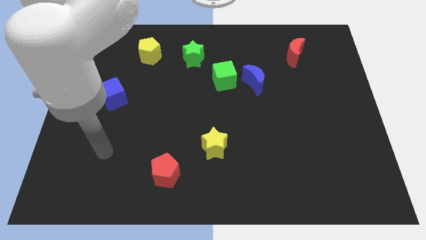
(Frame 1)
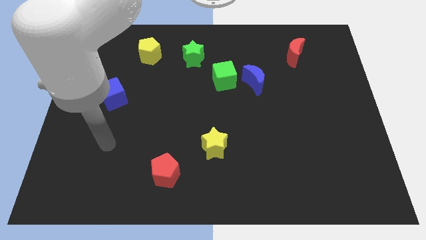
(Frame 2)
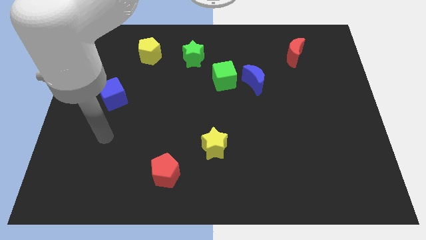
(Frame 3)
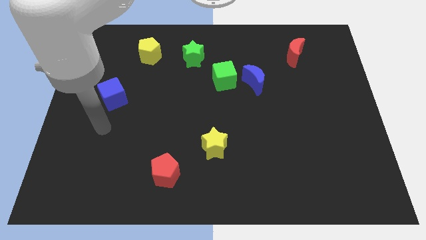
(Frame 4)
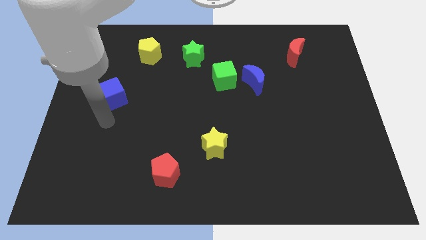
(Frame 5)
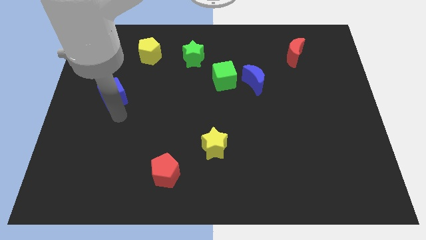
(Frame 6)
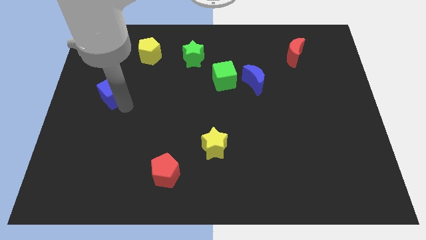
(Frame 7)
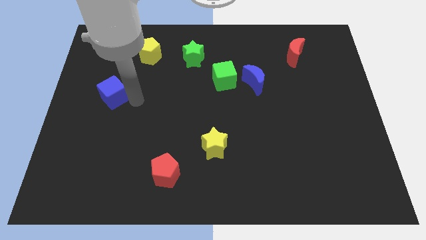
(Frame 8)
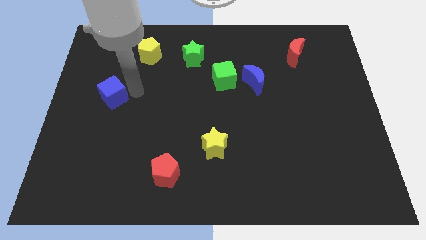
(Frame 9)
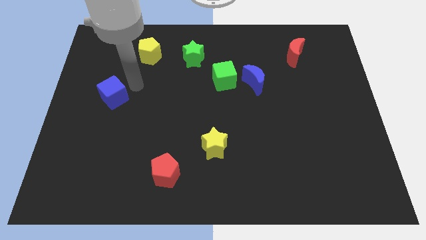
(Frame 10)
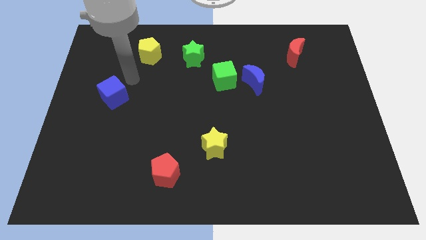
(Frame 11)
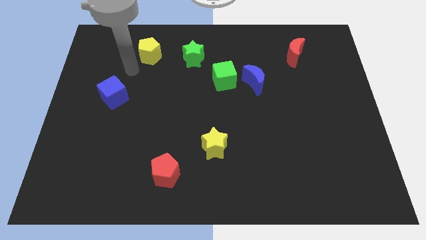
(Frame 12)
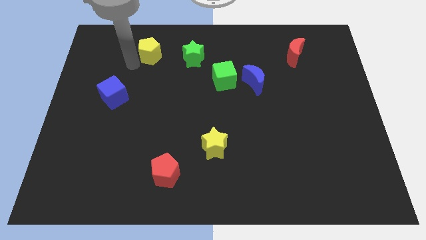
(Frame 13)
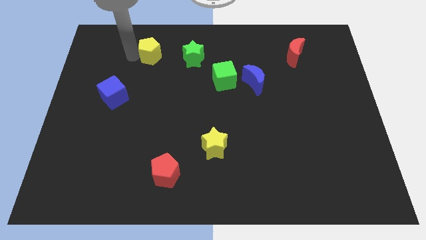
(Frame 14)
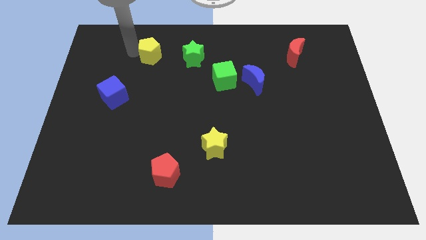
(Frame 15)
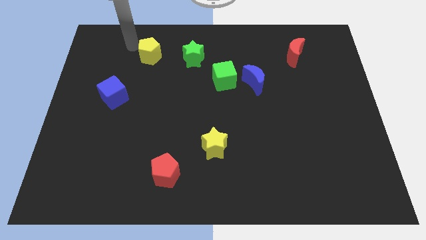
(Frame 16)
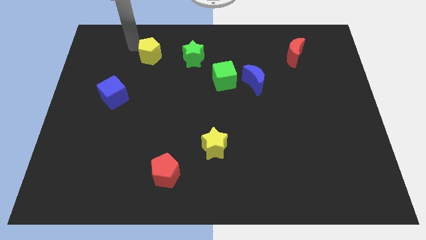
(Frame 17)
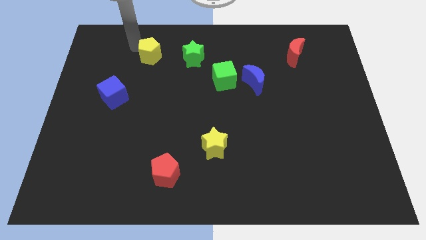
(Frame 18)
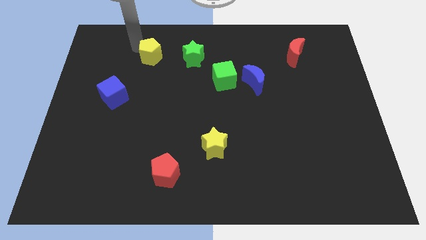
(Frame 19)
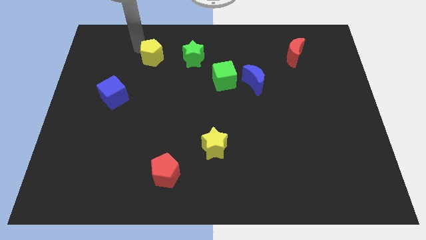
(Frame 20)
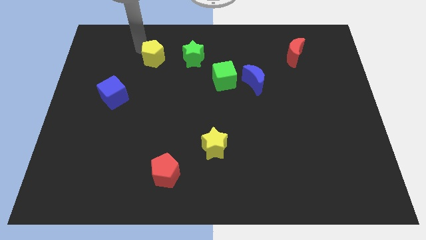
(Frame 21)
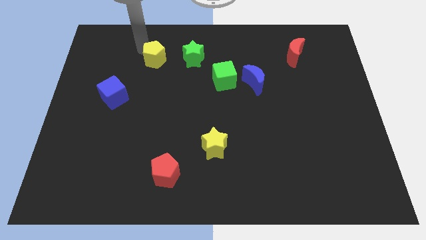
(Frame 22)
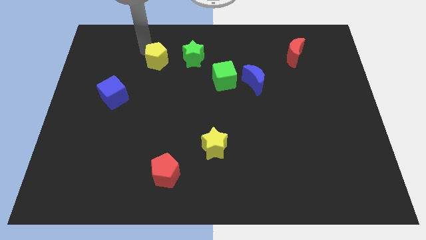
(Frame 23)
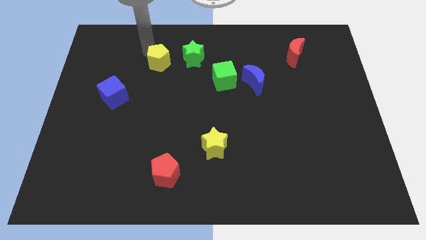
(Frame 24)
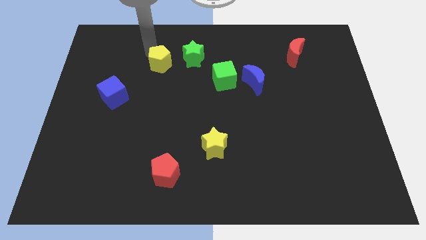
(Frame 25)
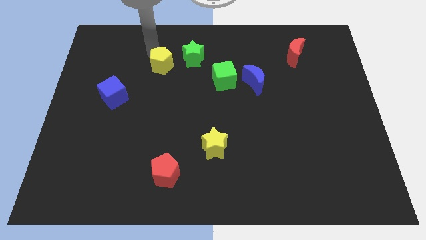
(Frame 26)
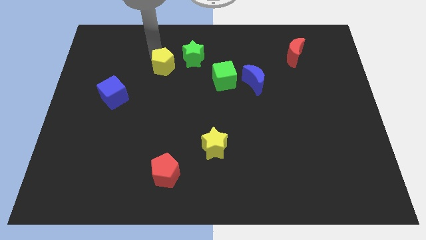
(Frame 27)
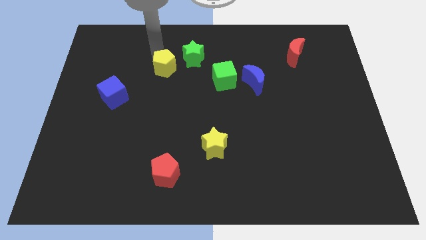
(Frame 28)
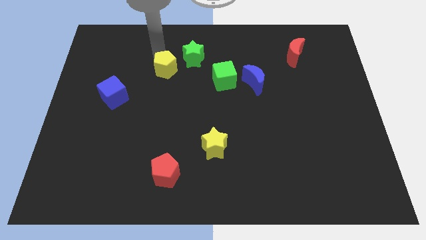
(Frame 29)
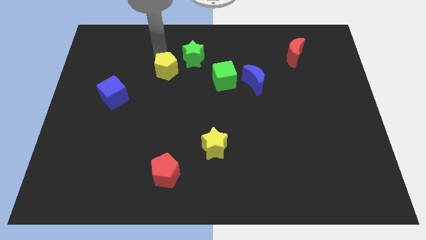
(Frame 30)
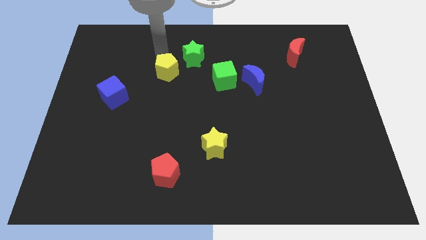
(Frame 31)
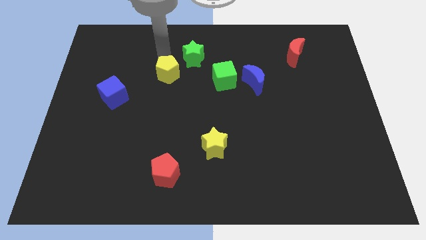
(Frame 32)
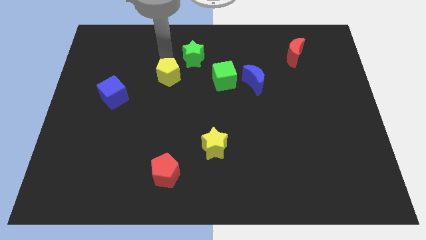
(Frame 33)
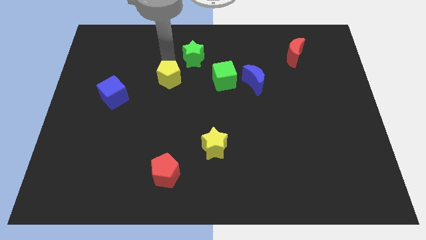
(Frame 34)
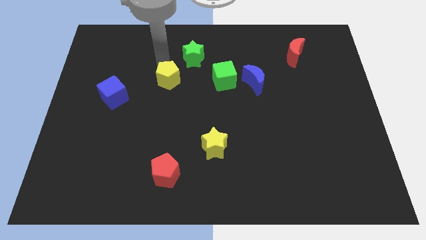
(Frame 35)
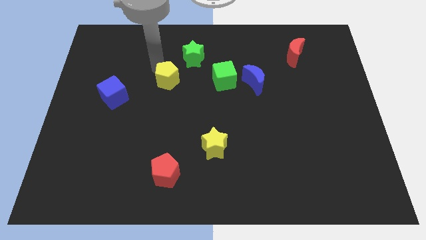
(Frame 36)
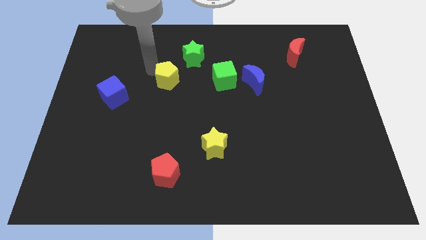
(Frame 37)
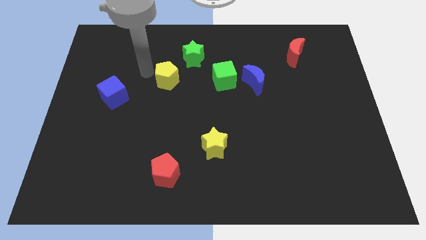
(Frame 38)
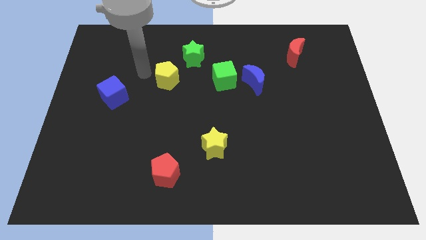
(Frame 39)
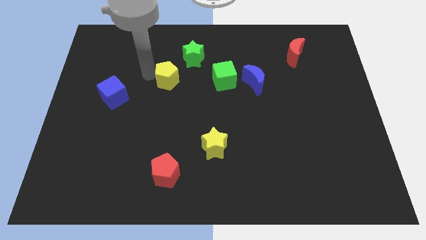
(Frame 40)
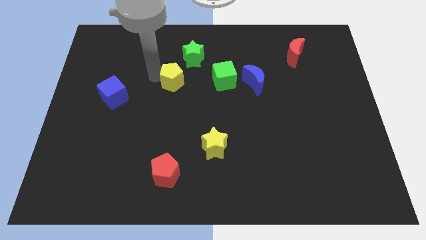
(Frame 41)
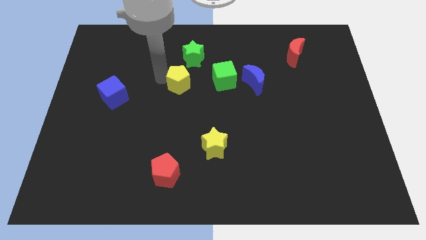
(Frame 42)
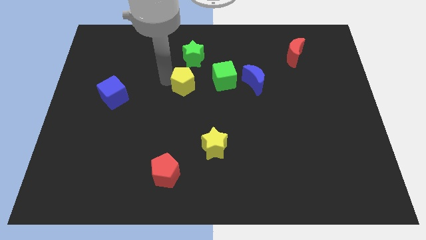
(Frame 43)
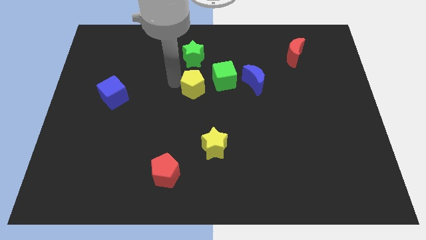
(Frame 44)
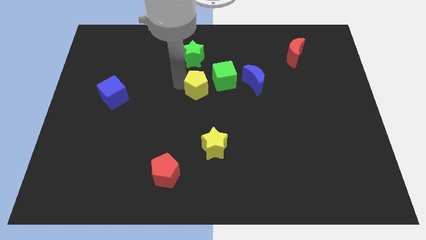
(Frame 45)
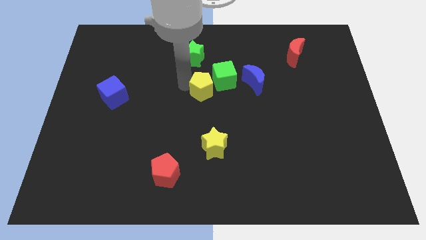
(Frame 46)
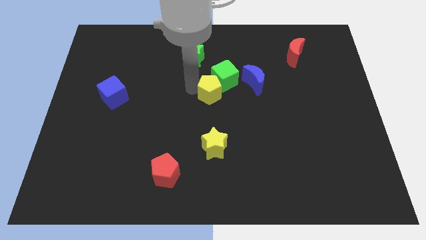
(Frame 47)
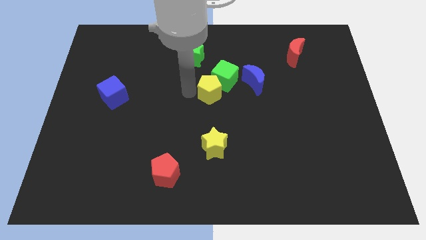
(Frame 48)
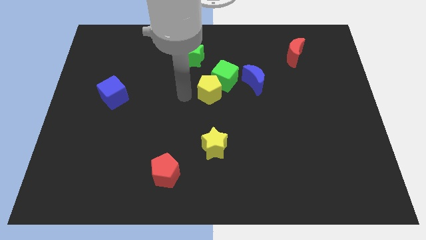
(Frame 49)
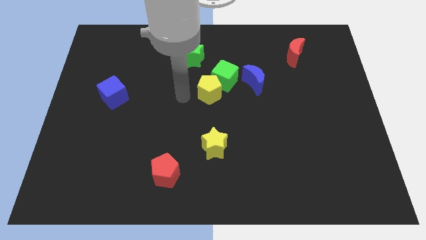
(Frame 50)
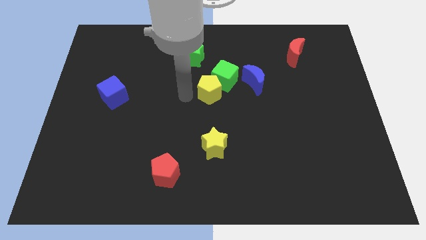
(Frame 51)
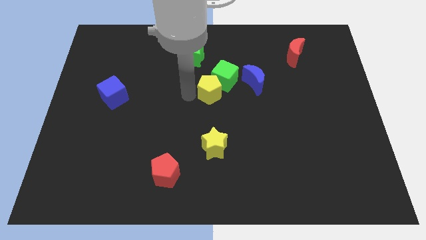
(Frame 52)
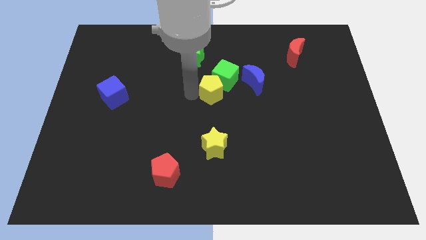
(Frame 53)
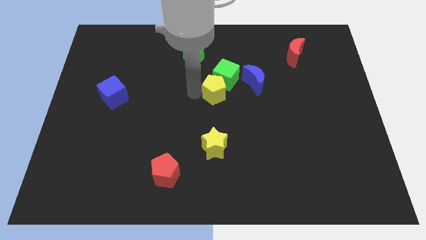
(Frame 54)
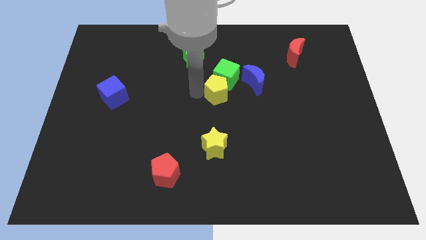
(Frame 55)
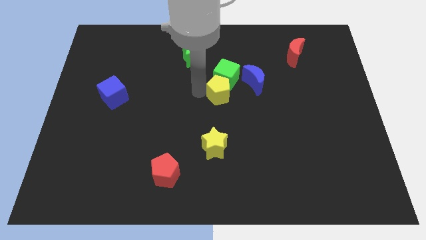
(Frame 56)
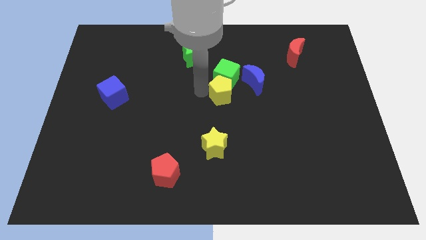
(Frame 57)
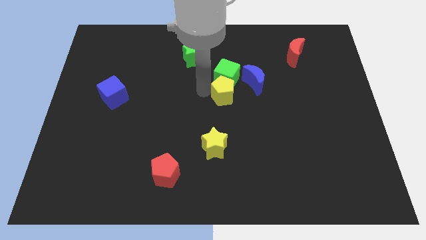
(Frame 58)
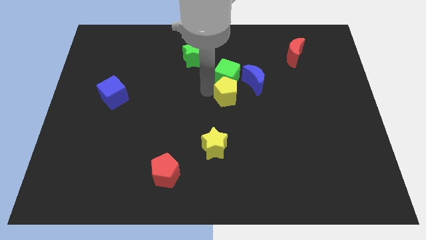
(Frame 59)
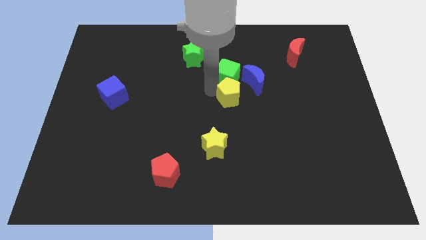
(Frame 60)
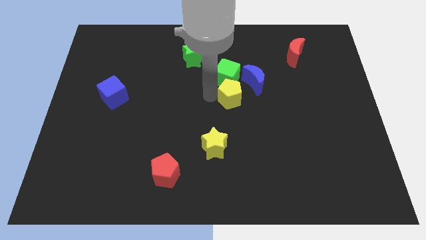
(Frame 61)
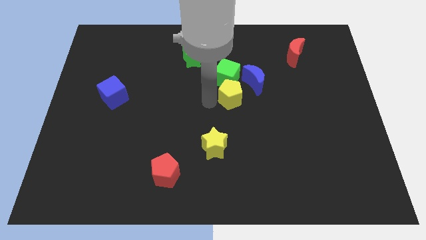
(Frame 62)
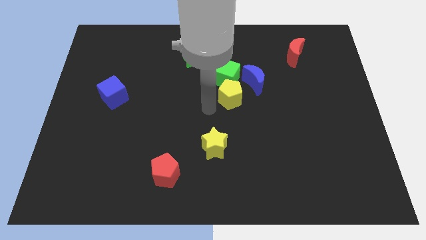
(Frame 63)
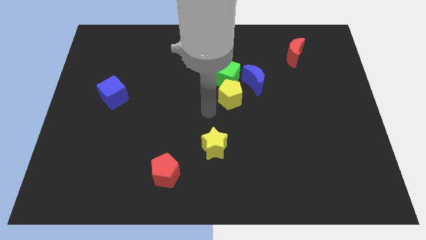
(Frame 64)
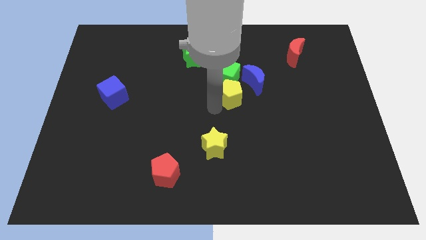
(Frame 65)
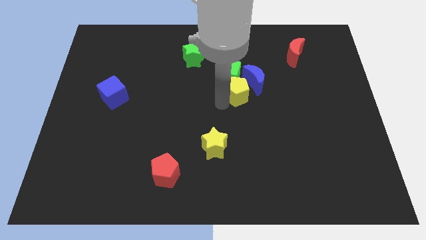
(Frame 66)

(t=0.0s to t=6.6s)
put the yellow pentagon to the blue moon

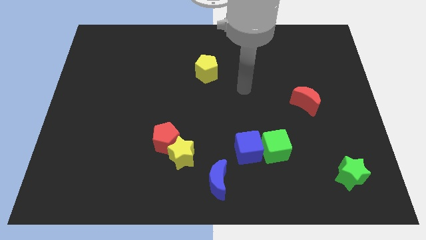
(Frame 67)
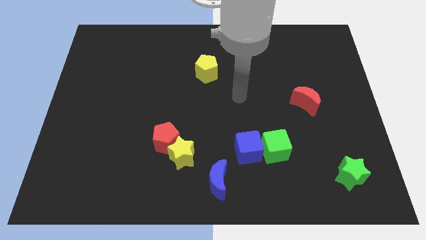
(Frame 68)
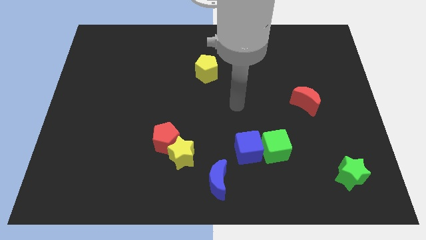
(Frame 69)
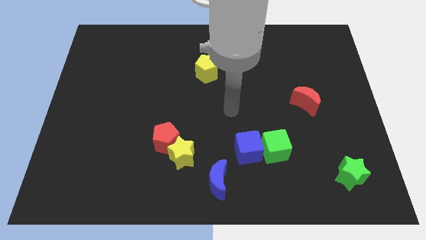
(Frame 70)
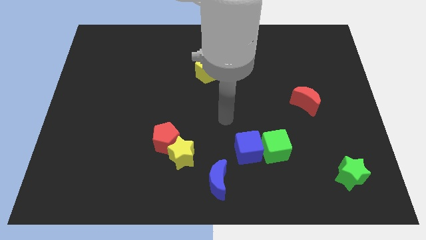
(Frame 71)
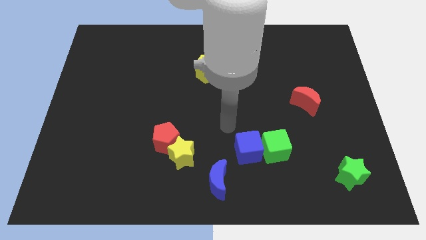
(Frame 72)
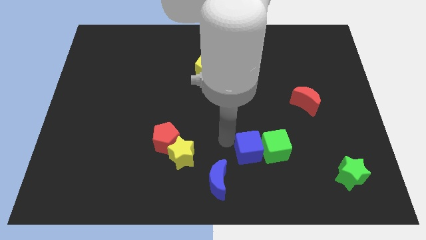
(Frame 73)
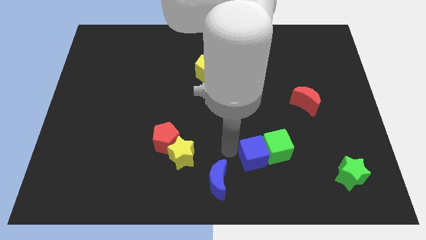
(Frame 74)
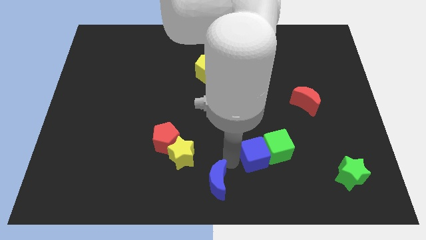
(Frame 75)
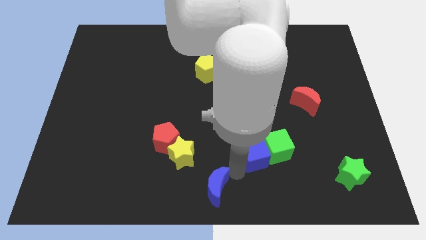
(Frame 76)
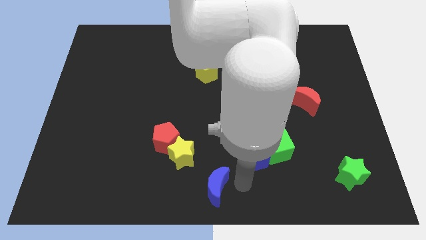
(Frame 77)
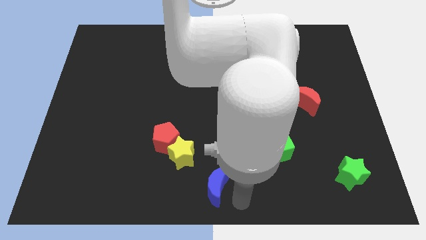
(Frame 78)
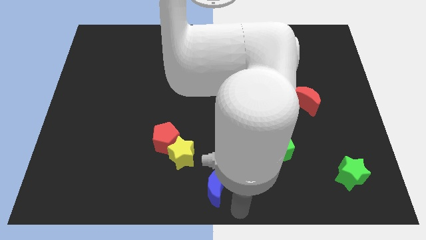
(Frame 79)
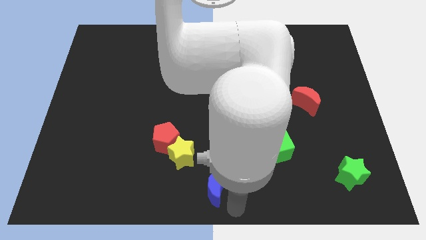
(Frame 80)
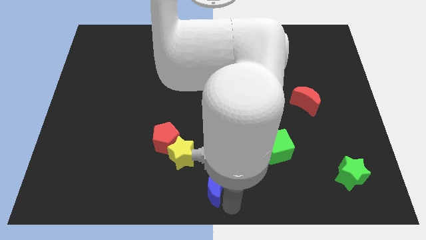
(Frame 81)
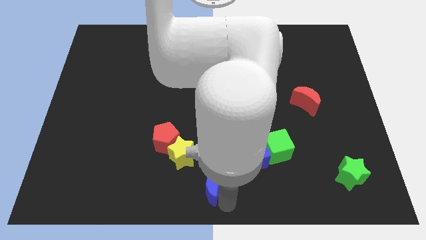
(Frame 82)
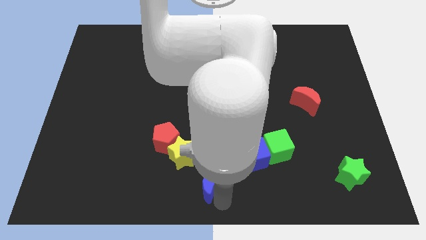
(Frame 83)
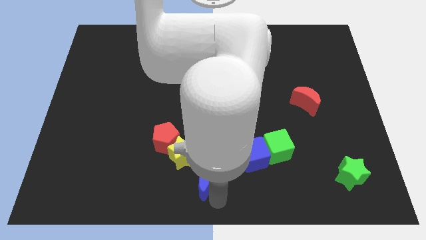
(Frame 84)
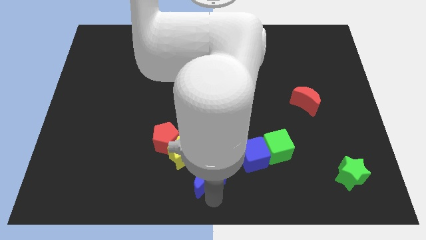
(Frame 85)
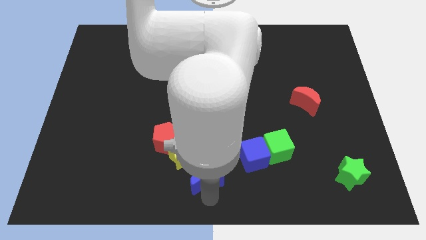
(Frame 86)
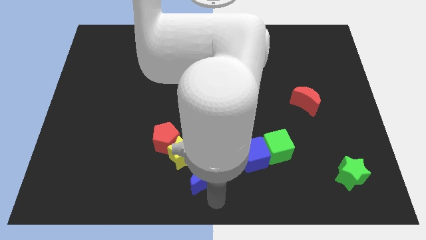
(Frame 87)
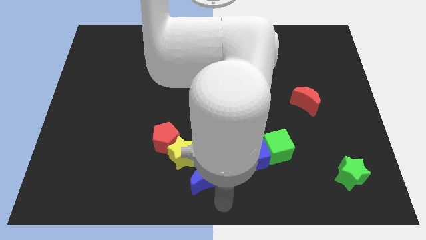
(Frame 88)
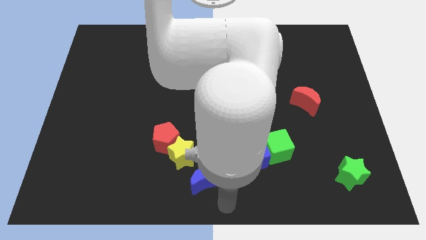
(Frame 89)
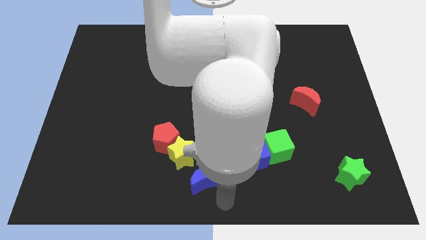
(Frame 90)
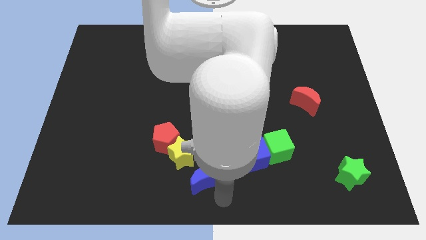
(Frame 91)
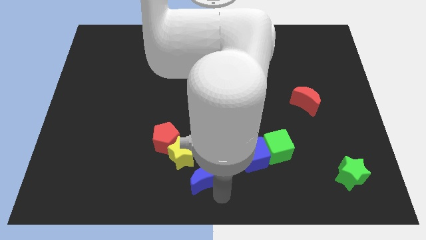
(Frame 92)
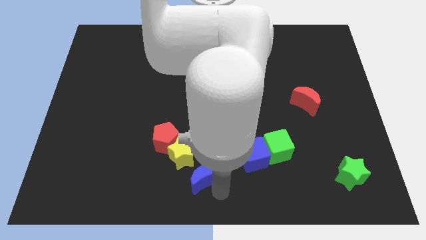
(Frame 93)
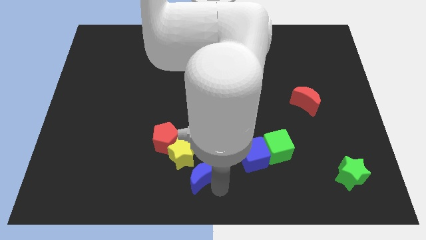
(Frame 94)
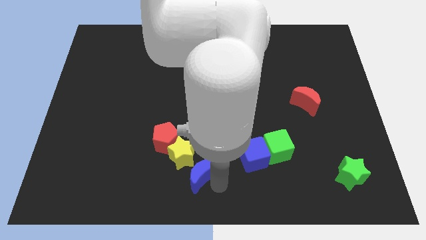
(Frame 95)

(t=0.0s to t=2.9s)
move the blue moon next to the yellow star
